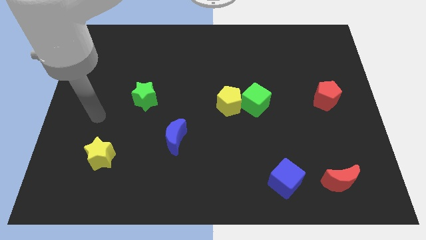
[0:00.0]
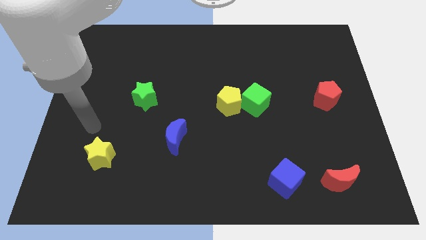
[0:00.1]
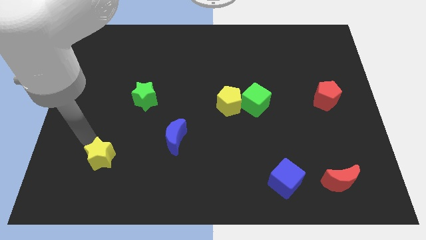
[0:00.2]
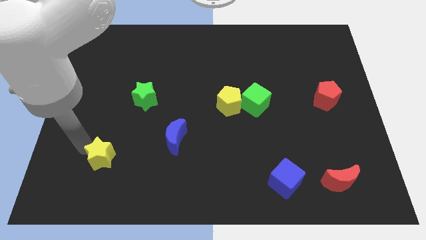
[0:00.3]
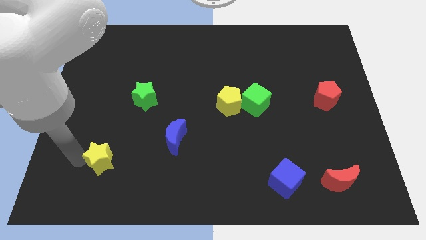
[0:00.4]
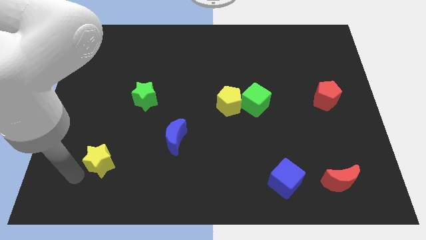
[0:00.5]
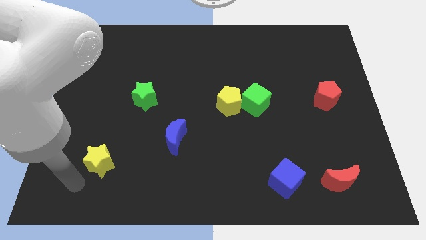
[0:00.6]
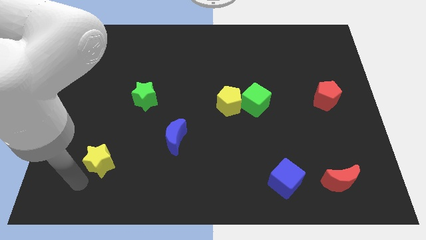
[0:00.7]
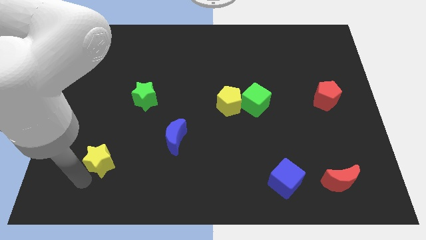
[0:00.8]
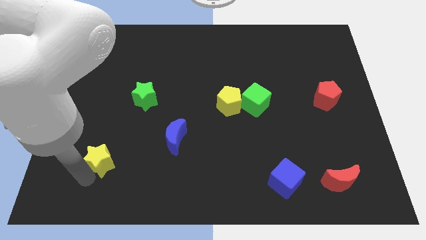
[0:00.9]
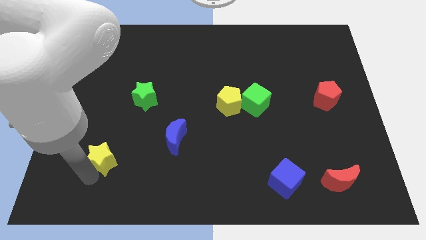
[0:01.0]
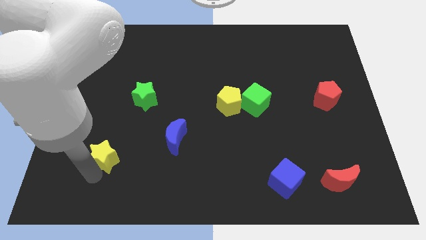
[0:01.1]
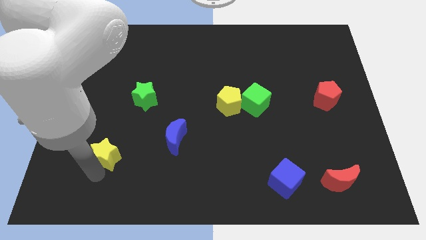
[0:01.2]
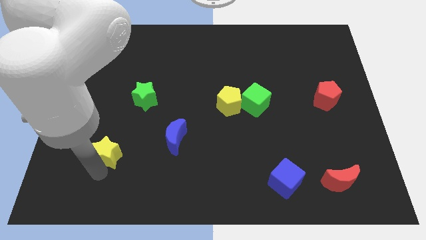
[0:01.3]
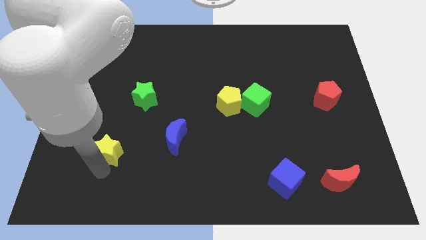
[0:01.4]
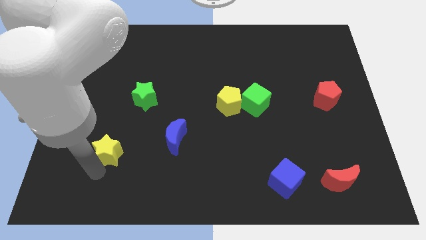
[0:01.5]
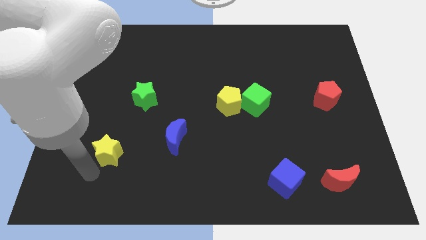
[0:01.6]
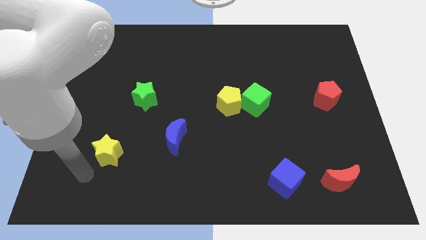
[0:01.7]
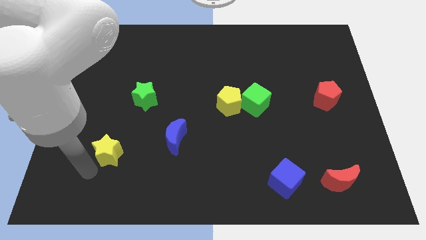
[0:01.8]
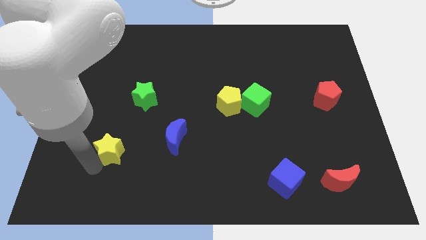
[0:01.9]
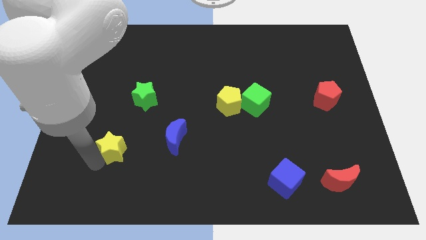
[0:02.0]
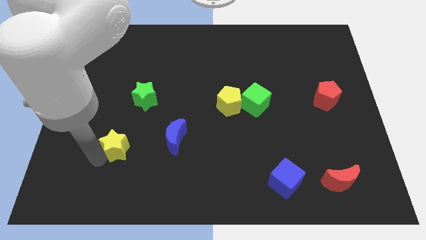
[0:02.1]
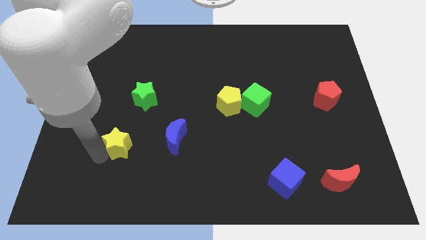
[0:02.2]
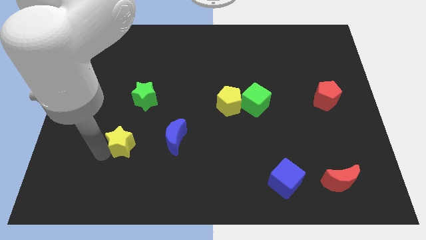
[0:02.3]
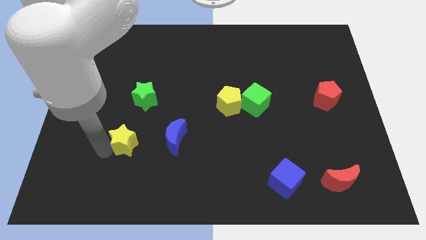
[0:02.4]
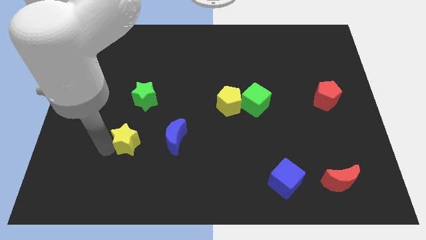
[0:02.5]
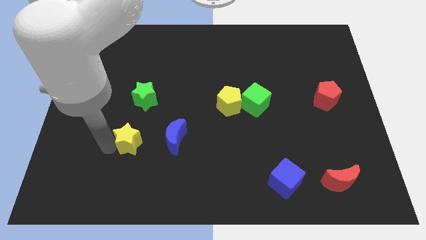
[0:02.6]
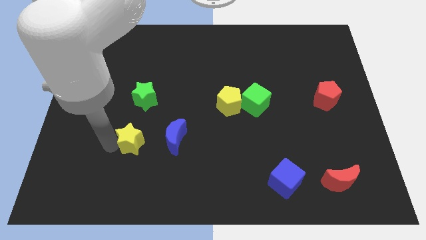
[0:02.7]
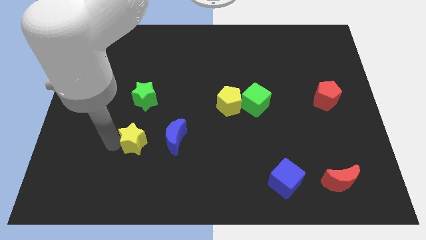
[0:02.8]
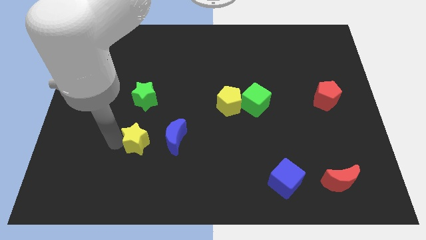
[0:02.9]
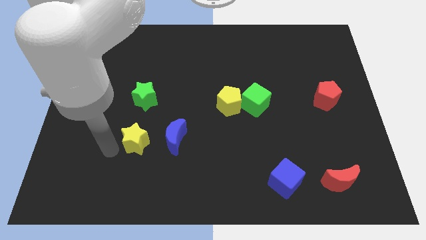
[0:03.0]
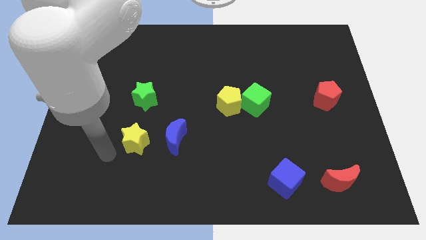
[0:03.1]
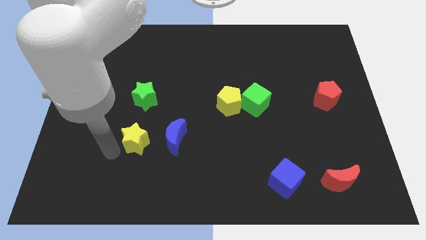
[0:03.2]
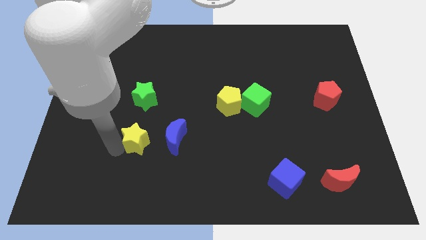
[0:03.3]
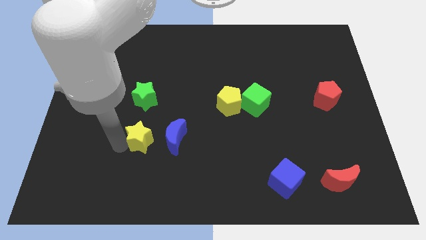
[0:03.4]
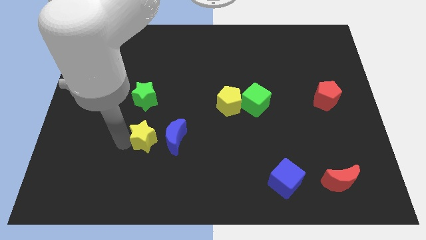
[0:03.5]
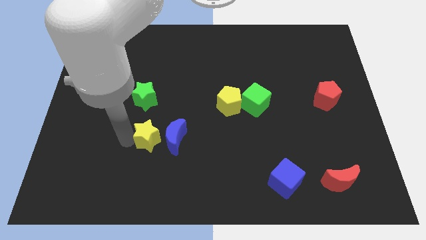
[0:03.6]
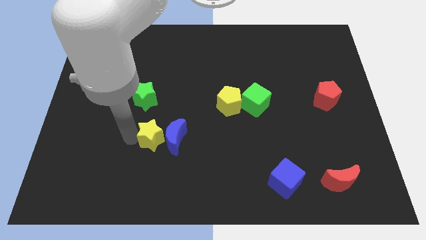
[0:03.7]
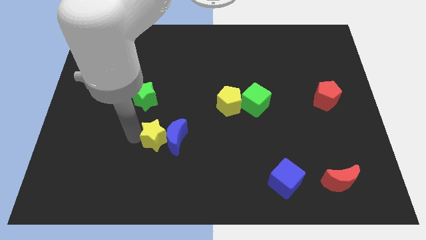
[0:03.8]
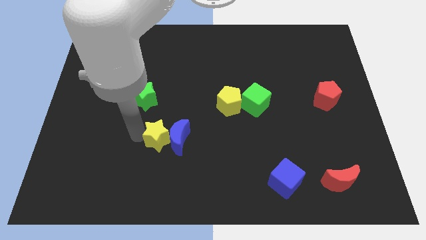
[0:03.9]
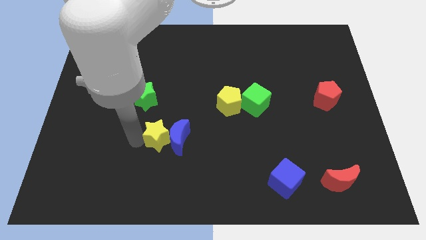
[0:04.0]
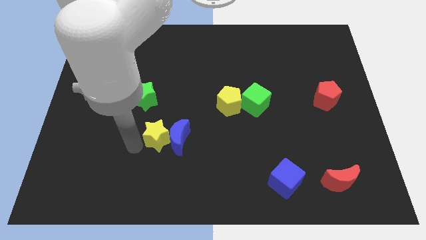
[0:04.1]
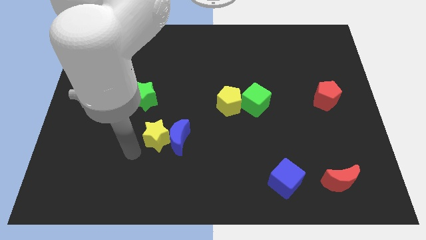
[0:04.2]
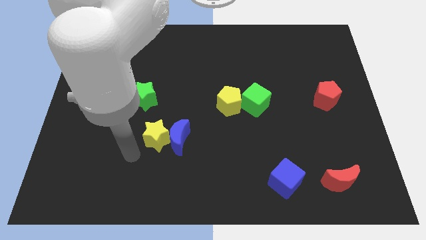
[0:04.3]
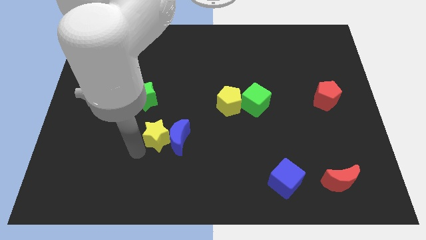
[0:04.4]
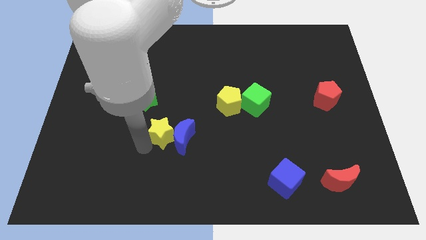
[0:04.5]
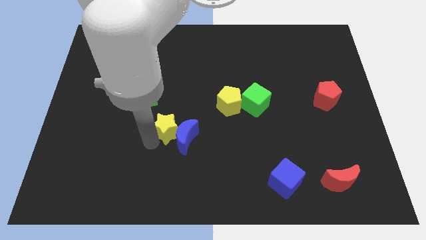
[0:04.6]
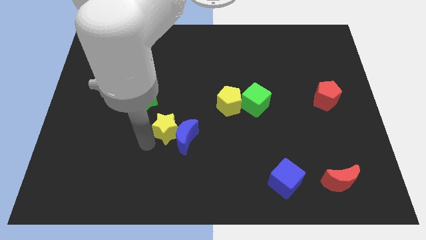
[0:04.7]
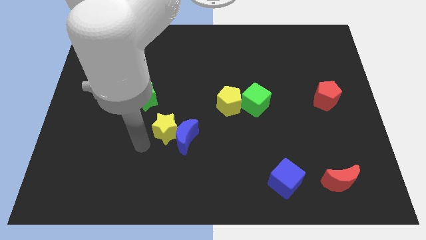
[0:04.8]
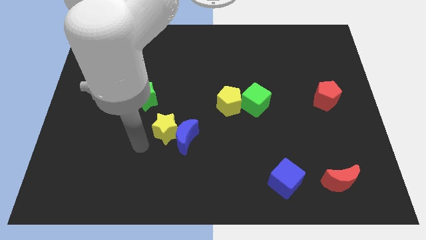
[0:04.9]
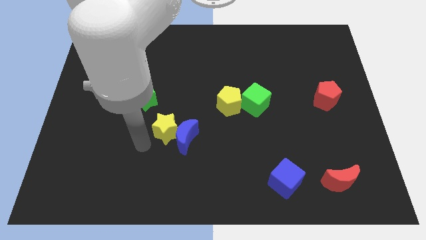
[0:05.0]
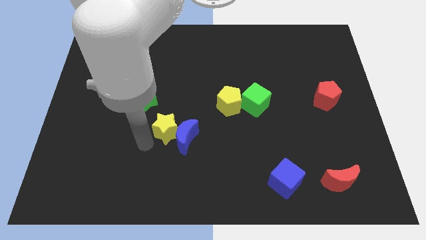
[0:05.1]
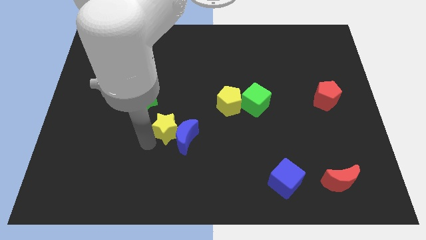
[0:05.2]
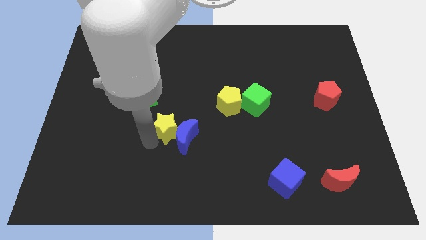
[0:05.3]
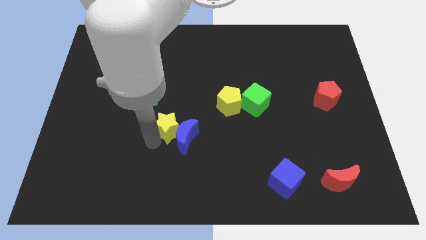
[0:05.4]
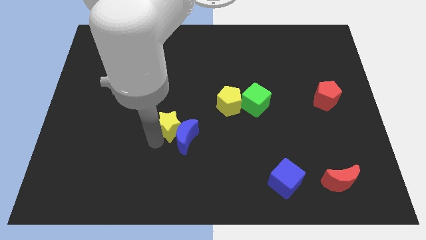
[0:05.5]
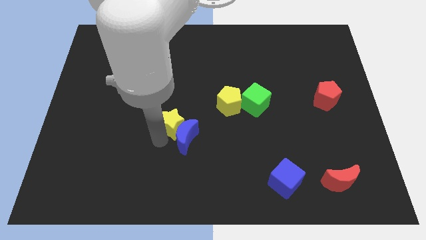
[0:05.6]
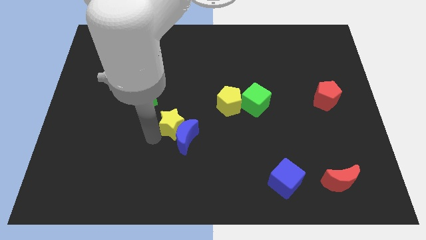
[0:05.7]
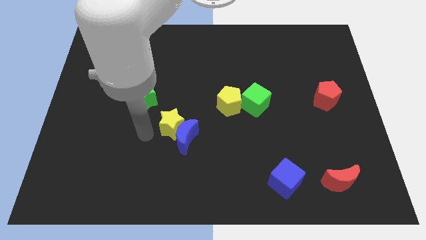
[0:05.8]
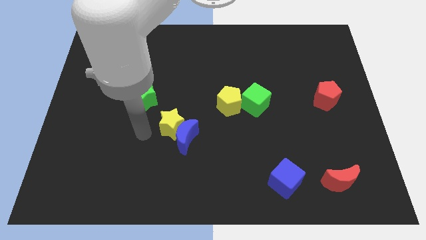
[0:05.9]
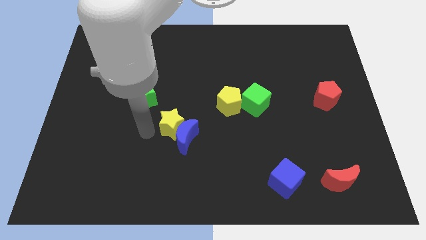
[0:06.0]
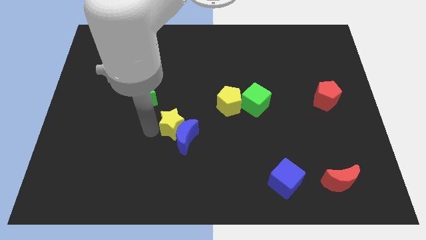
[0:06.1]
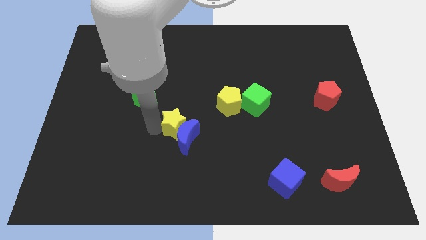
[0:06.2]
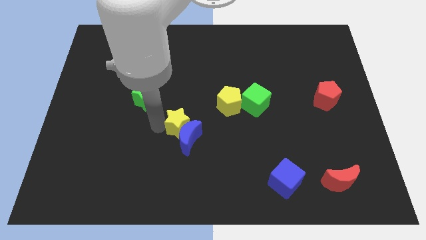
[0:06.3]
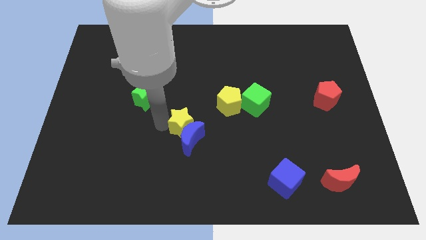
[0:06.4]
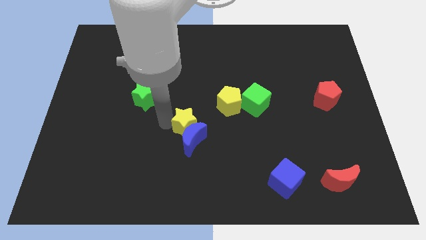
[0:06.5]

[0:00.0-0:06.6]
move the yellow star to the top right side of the blue moon

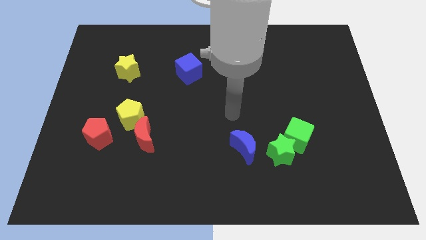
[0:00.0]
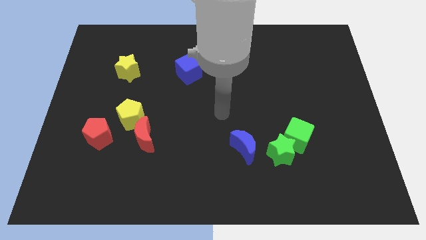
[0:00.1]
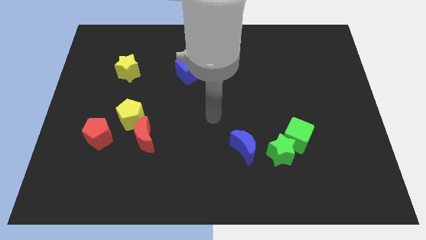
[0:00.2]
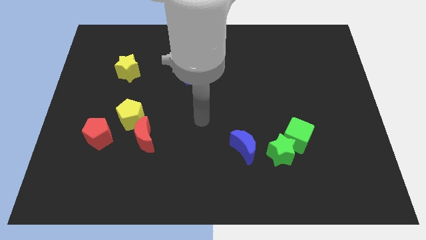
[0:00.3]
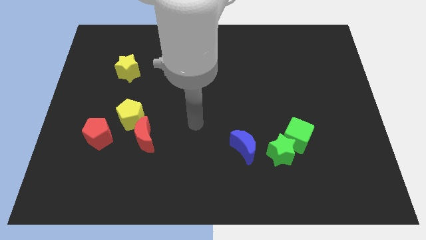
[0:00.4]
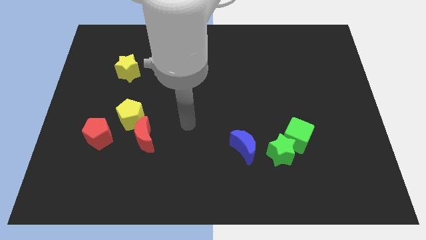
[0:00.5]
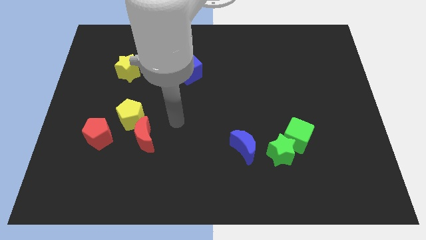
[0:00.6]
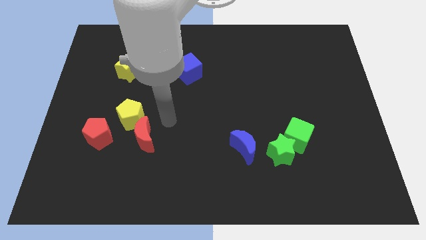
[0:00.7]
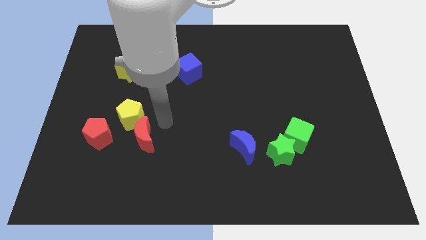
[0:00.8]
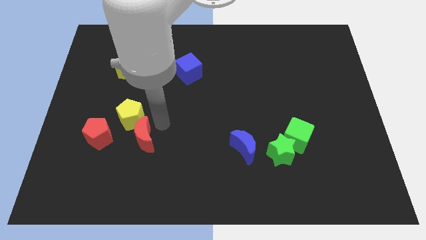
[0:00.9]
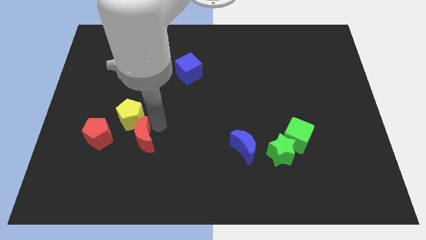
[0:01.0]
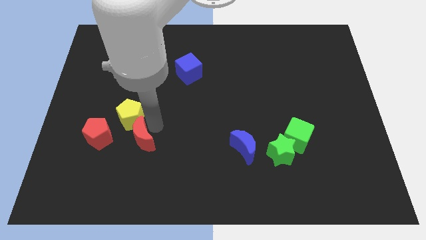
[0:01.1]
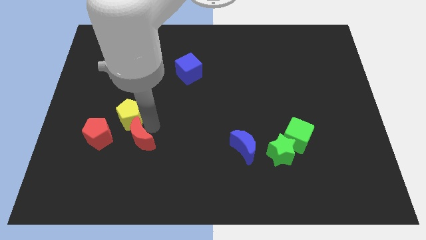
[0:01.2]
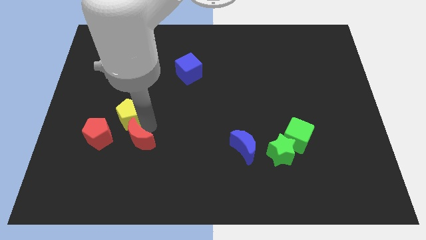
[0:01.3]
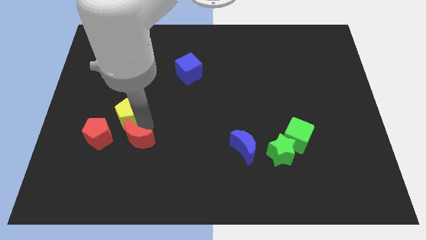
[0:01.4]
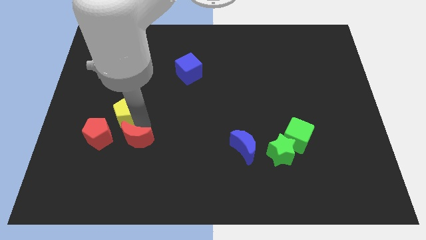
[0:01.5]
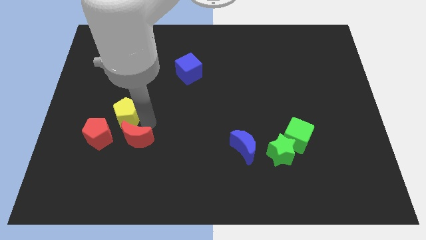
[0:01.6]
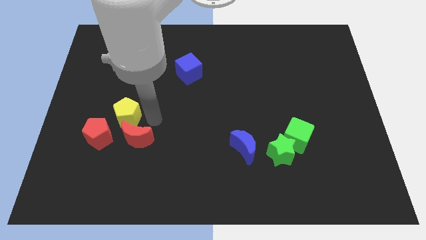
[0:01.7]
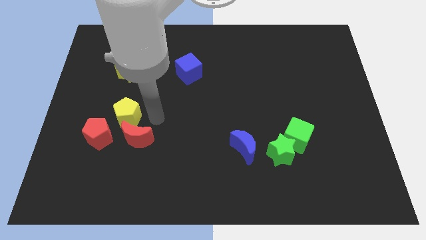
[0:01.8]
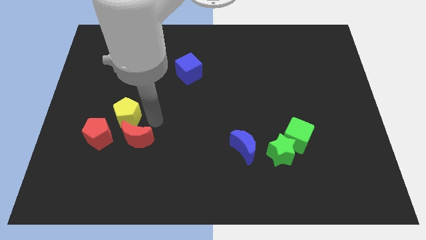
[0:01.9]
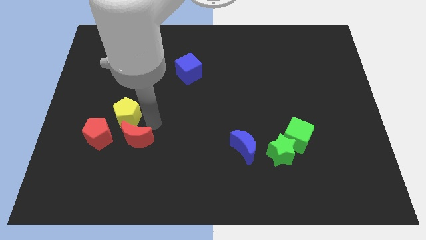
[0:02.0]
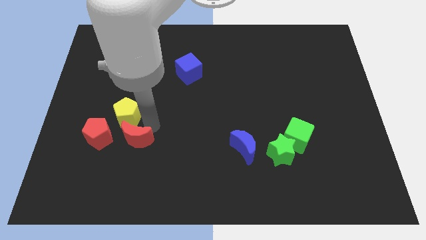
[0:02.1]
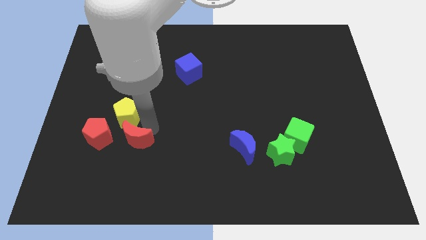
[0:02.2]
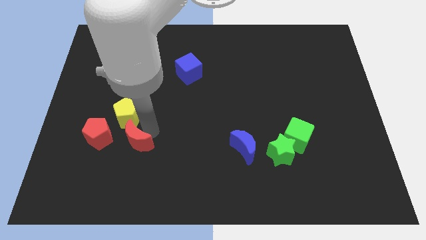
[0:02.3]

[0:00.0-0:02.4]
move the red moon to the bottom right of the red pentagon
